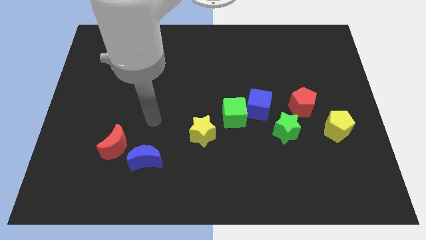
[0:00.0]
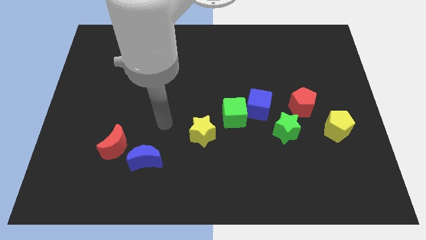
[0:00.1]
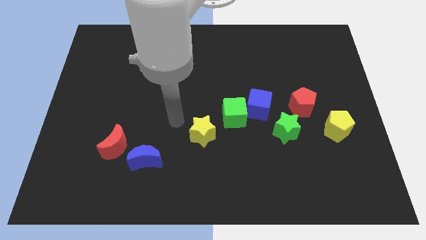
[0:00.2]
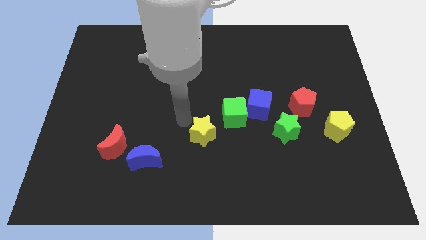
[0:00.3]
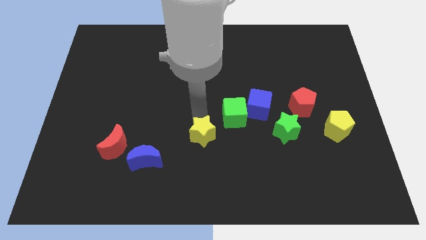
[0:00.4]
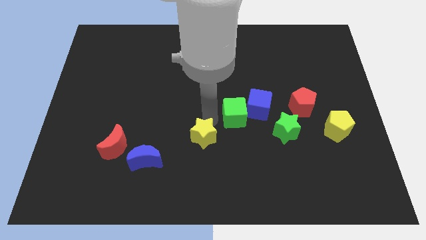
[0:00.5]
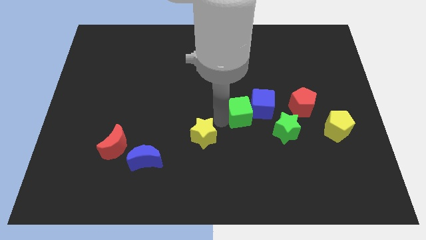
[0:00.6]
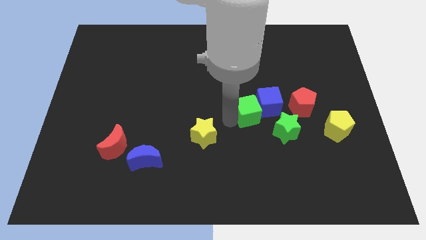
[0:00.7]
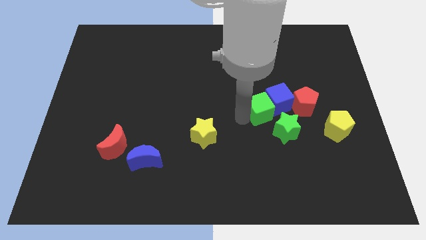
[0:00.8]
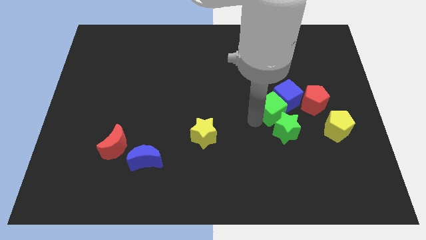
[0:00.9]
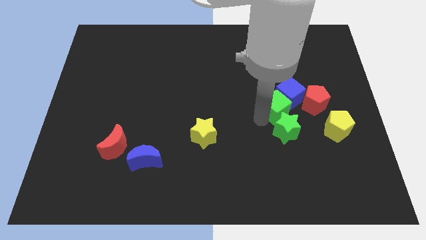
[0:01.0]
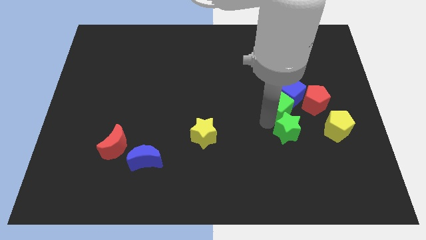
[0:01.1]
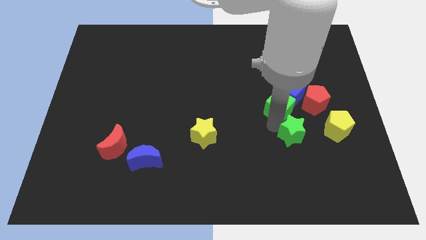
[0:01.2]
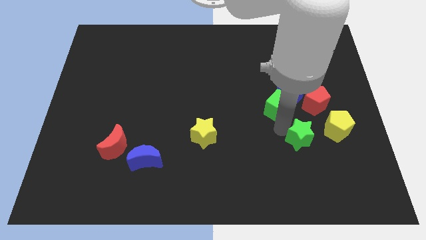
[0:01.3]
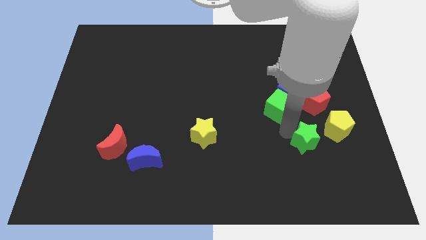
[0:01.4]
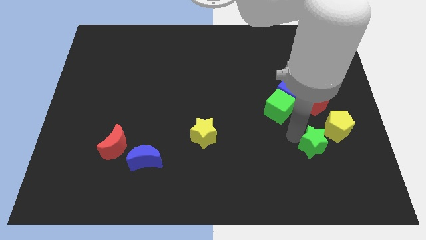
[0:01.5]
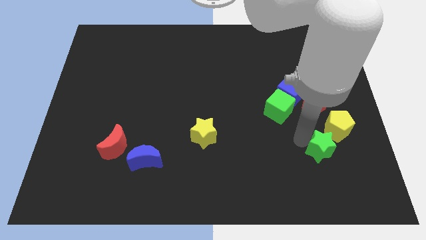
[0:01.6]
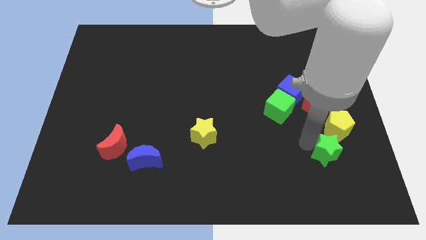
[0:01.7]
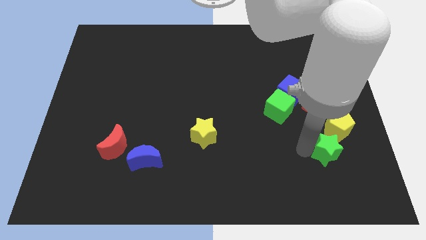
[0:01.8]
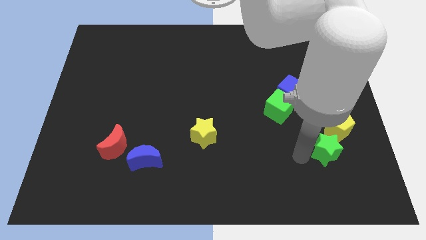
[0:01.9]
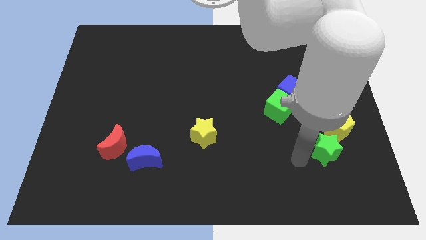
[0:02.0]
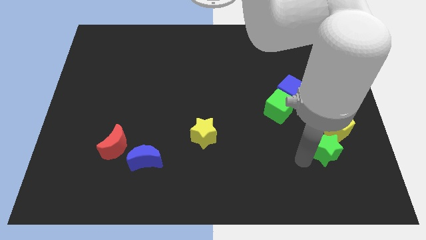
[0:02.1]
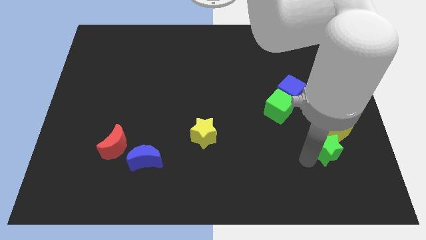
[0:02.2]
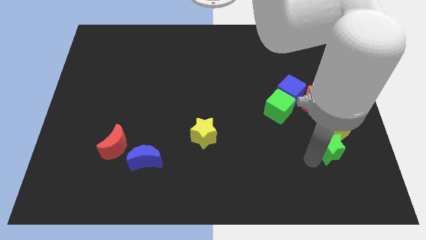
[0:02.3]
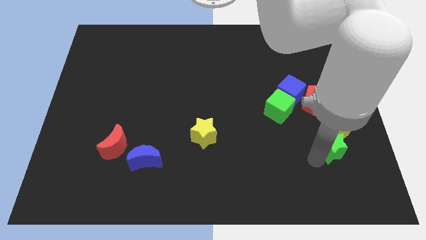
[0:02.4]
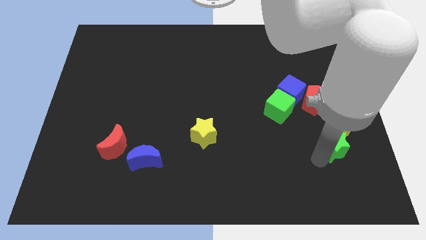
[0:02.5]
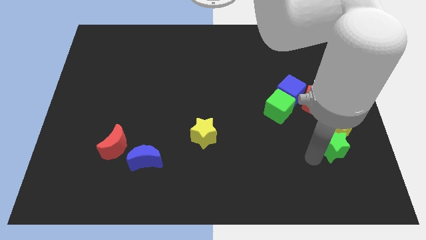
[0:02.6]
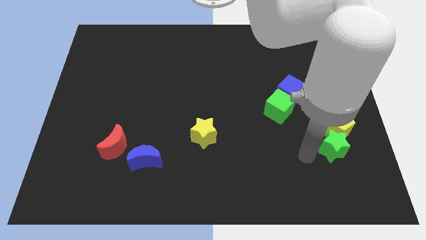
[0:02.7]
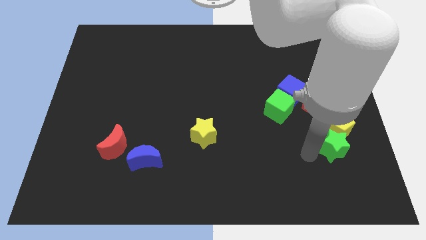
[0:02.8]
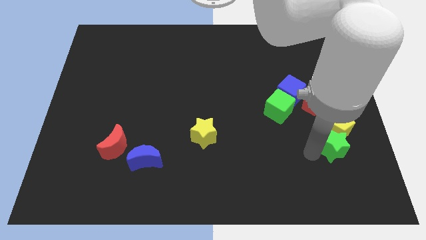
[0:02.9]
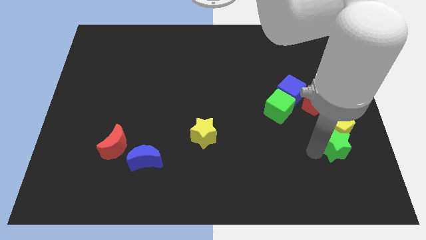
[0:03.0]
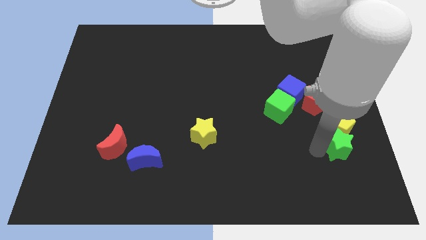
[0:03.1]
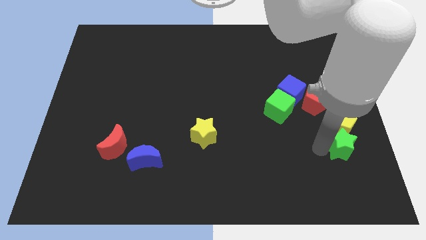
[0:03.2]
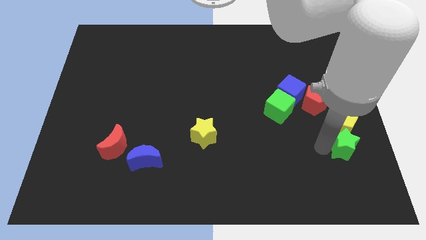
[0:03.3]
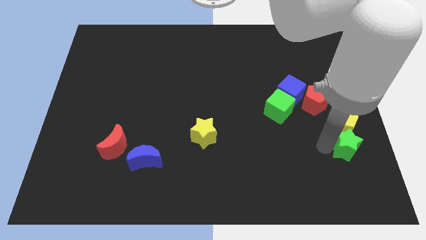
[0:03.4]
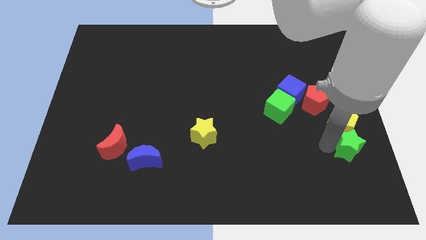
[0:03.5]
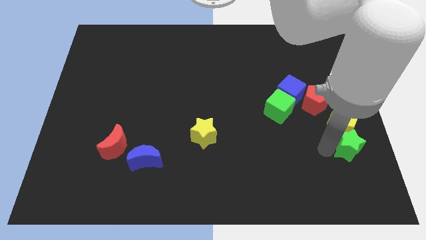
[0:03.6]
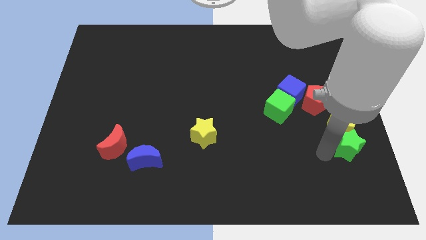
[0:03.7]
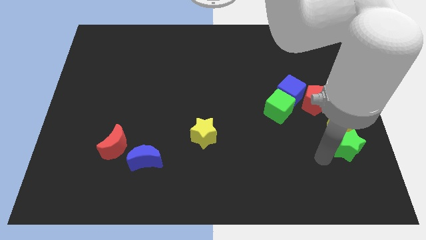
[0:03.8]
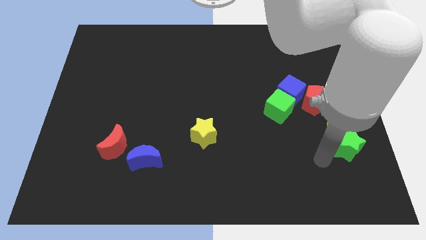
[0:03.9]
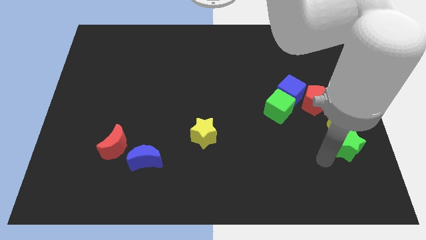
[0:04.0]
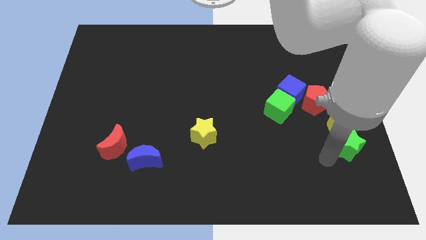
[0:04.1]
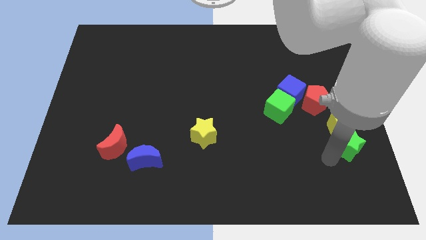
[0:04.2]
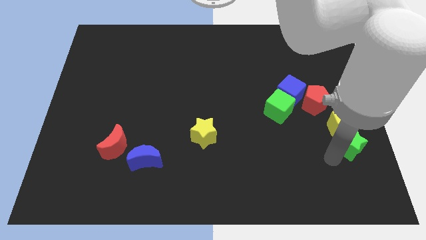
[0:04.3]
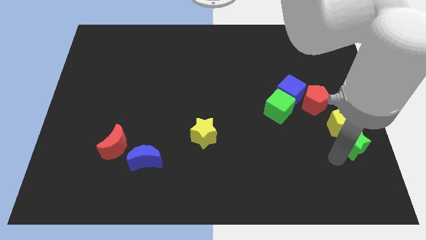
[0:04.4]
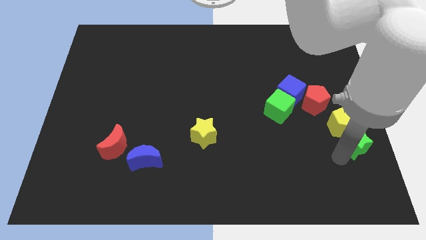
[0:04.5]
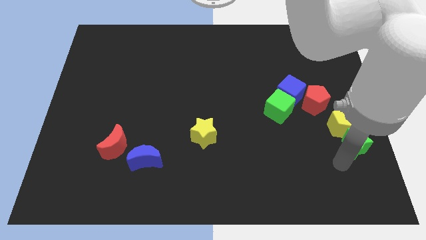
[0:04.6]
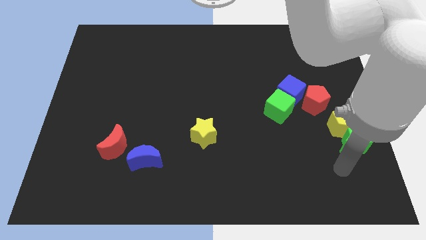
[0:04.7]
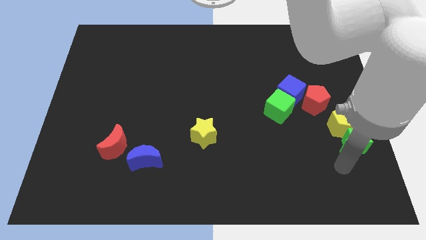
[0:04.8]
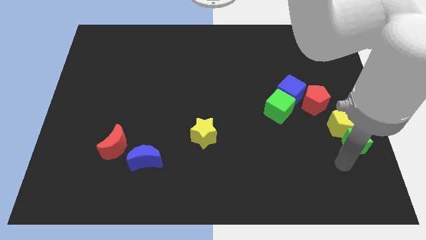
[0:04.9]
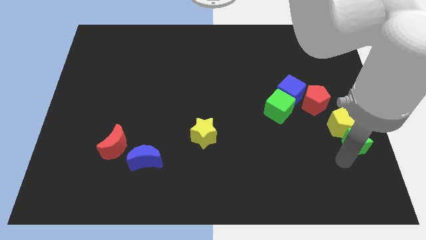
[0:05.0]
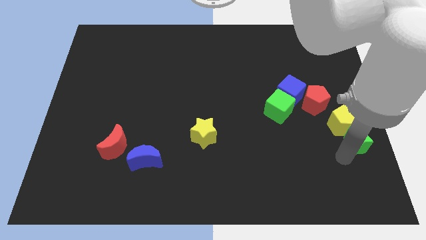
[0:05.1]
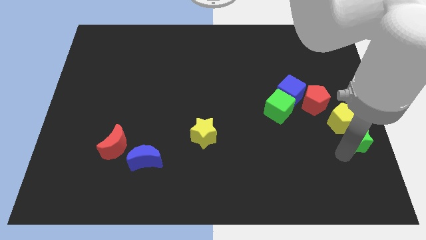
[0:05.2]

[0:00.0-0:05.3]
move the green star to the right side

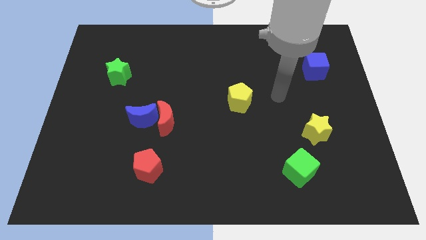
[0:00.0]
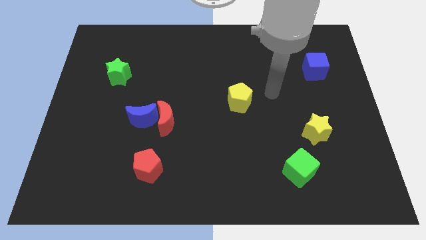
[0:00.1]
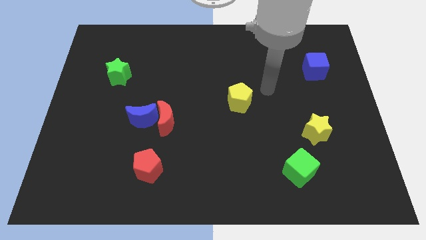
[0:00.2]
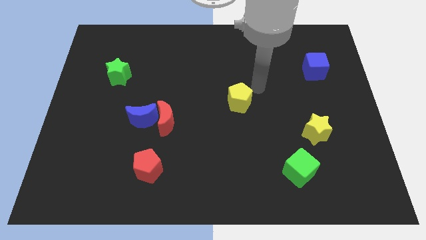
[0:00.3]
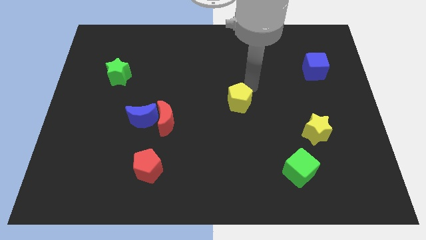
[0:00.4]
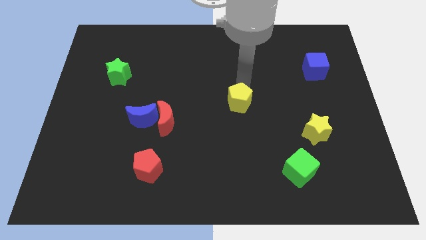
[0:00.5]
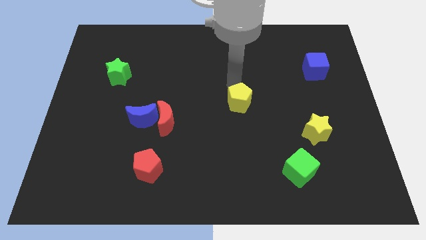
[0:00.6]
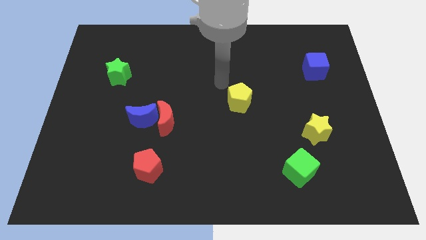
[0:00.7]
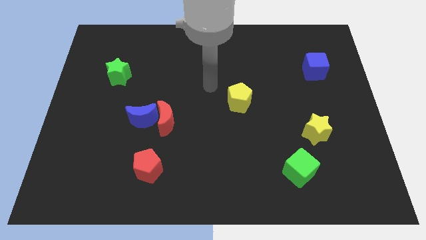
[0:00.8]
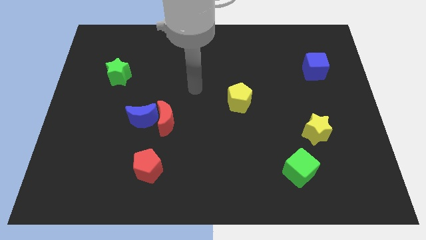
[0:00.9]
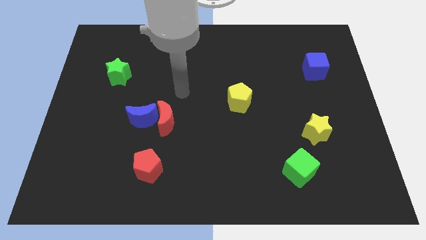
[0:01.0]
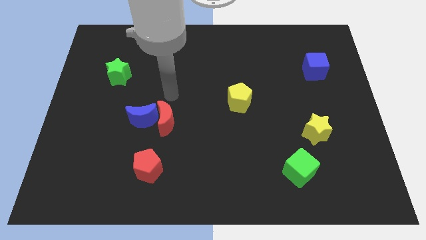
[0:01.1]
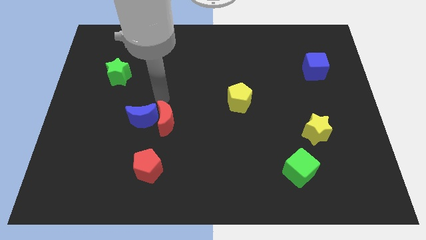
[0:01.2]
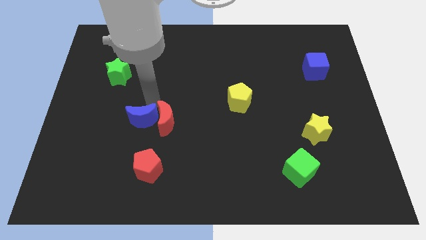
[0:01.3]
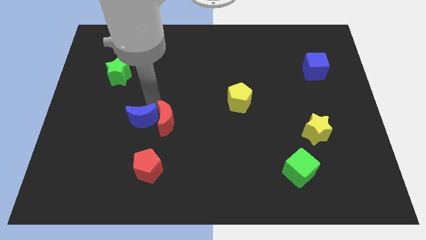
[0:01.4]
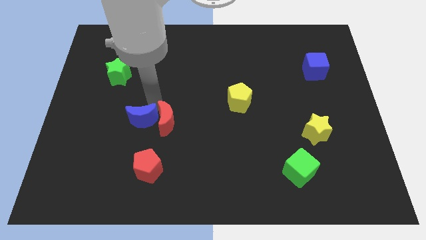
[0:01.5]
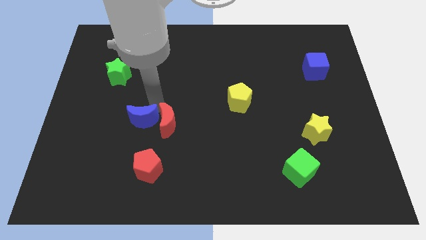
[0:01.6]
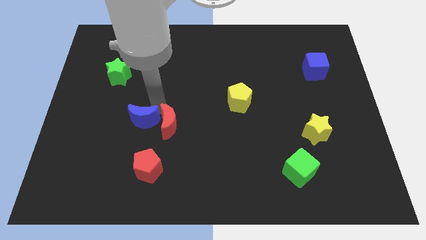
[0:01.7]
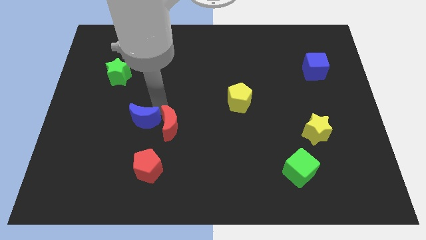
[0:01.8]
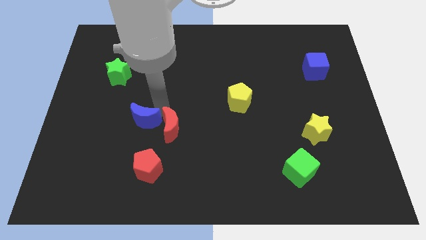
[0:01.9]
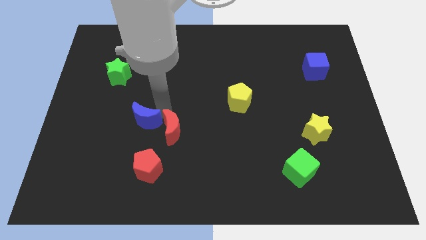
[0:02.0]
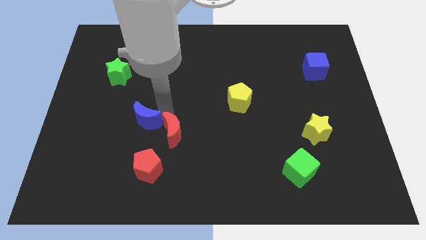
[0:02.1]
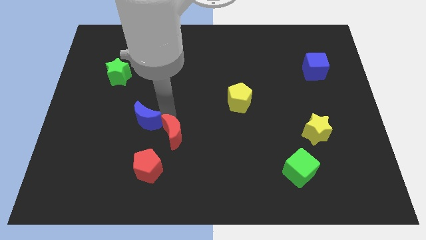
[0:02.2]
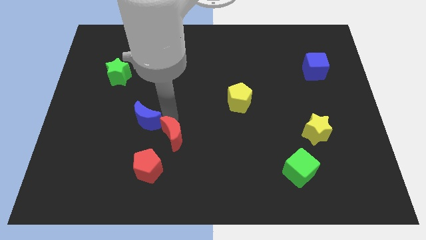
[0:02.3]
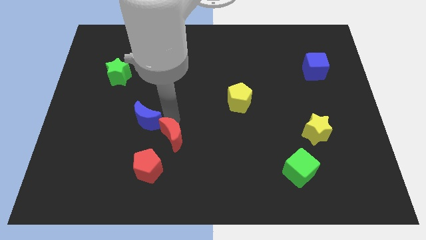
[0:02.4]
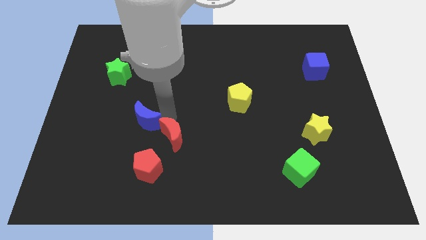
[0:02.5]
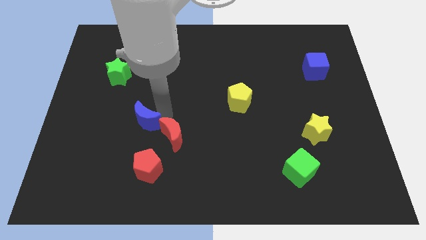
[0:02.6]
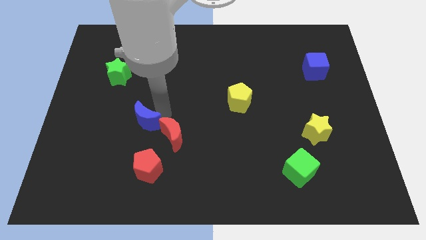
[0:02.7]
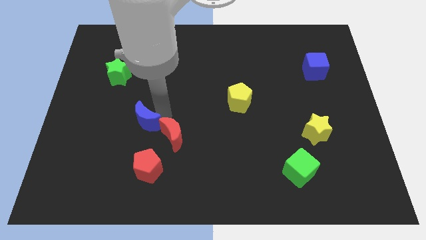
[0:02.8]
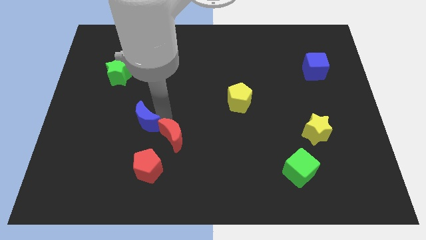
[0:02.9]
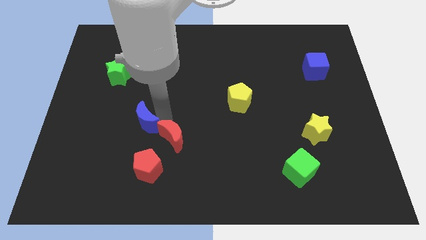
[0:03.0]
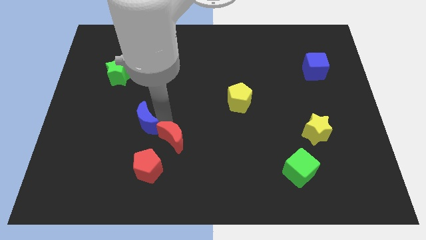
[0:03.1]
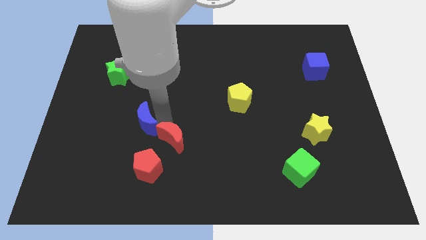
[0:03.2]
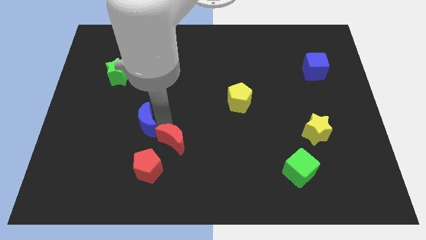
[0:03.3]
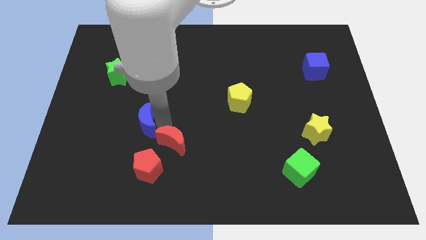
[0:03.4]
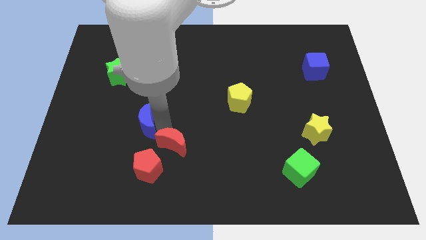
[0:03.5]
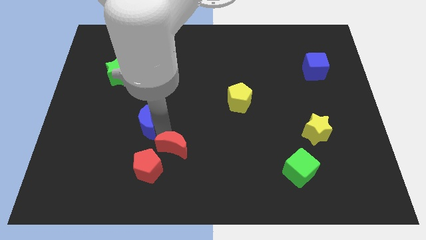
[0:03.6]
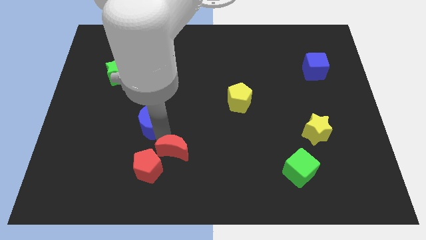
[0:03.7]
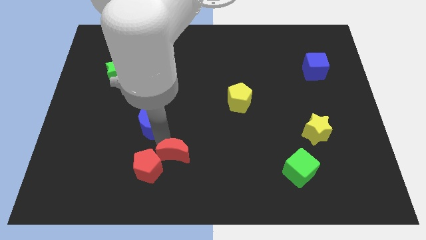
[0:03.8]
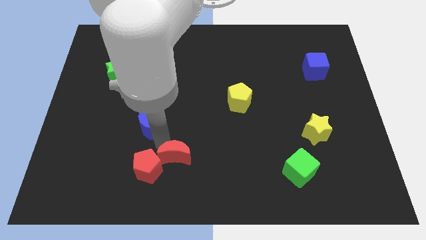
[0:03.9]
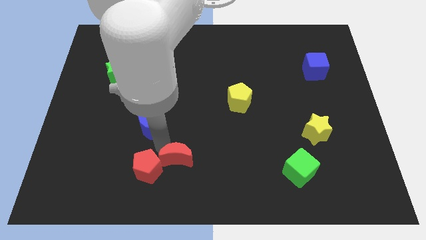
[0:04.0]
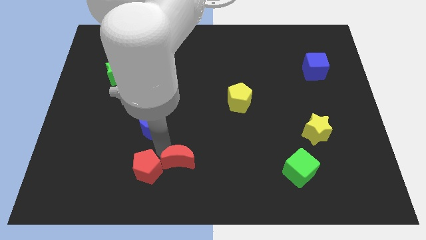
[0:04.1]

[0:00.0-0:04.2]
move the red moon to the bottom side
